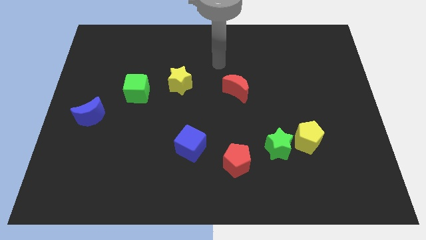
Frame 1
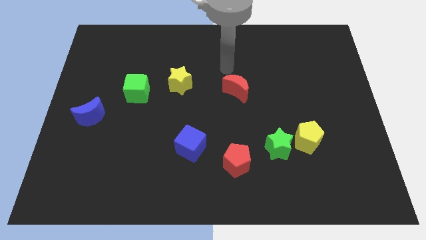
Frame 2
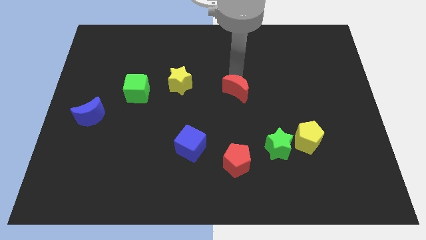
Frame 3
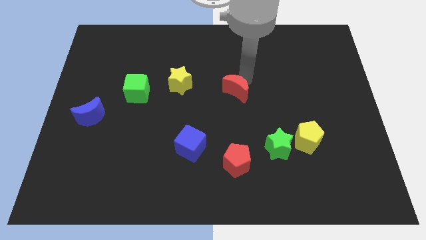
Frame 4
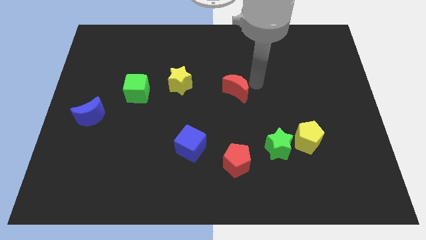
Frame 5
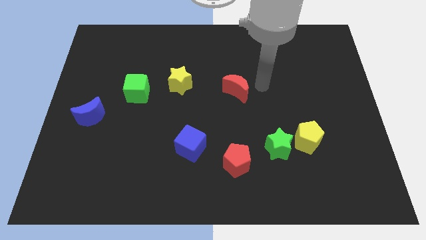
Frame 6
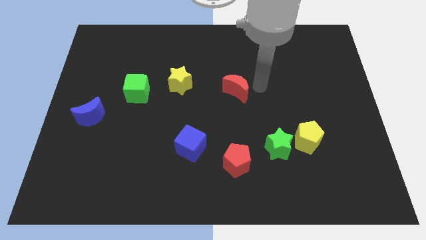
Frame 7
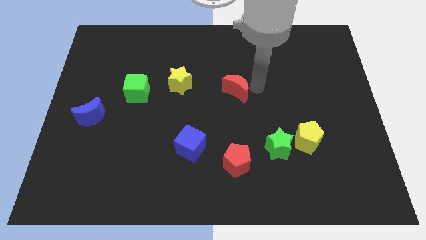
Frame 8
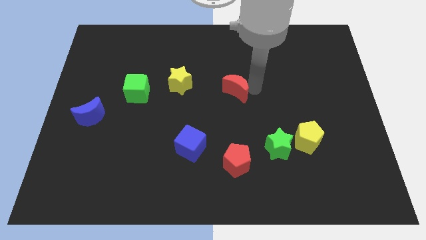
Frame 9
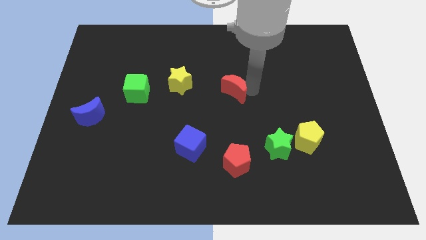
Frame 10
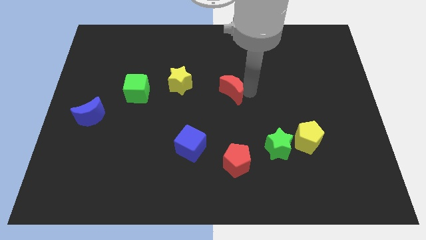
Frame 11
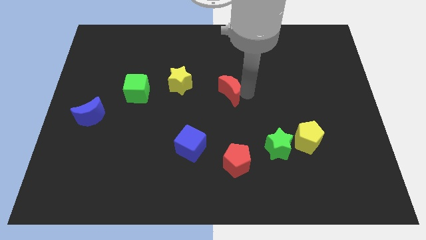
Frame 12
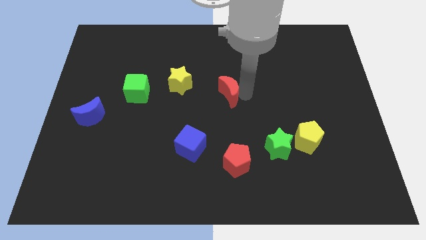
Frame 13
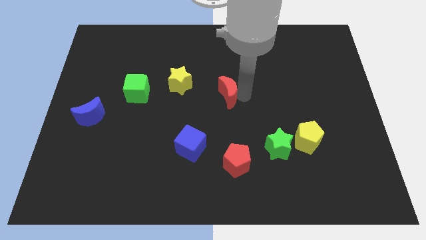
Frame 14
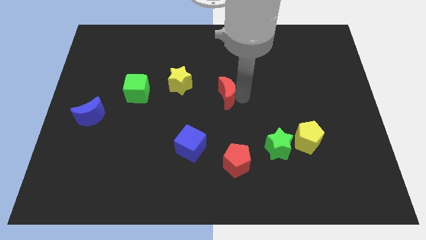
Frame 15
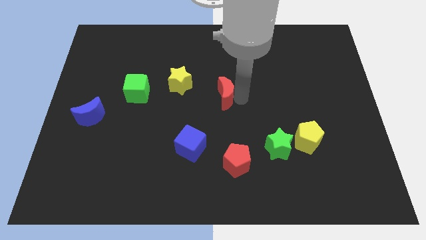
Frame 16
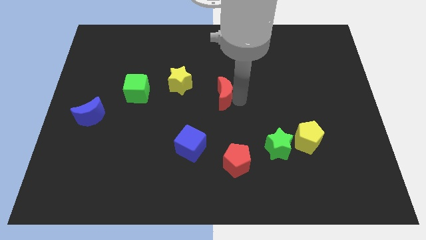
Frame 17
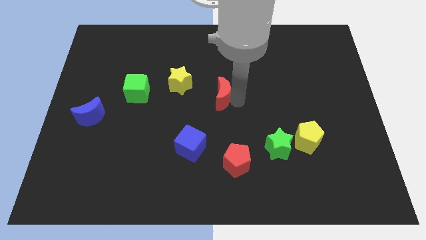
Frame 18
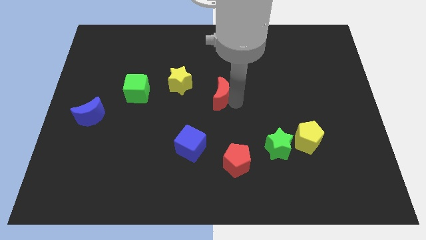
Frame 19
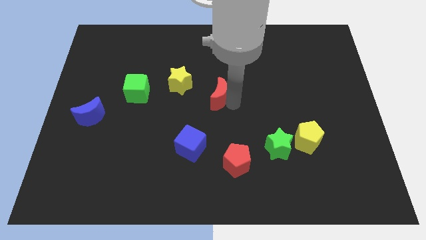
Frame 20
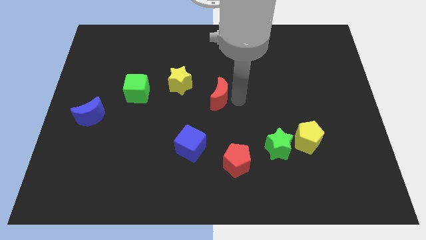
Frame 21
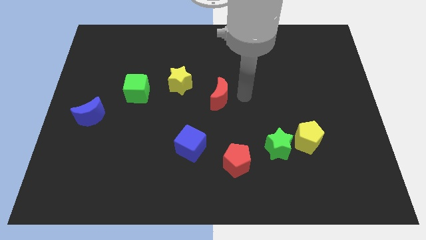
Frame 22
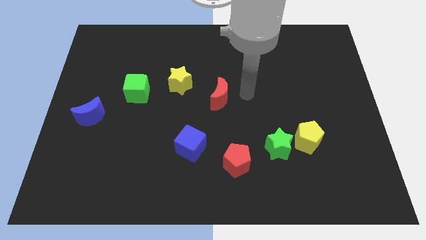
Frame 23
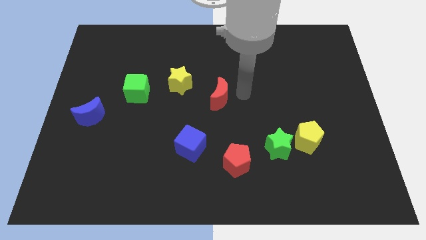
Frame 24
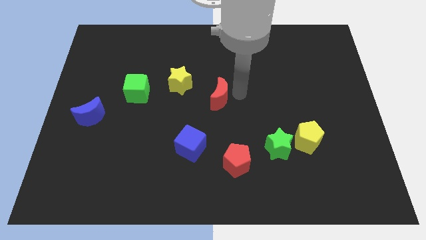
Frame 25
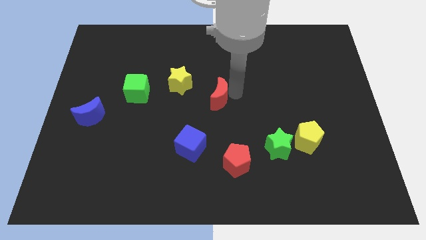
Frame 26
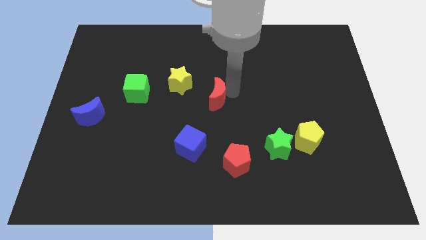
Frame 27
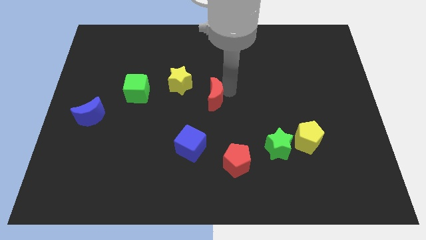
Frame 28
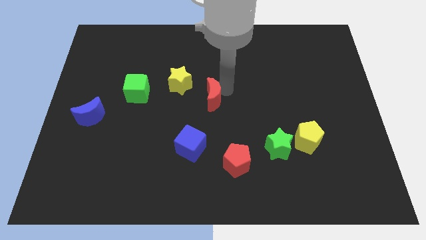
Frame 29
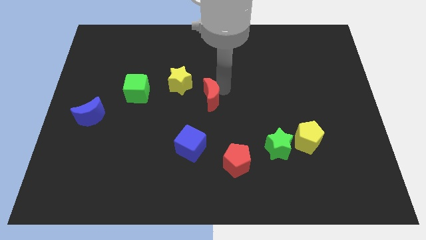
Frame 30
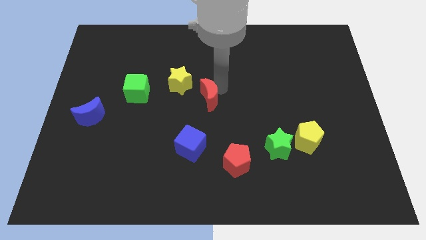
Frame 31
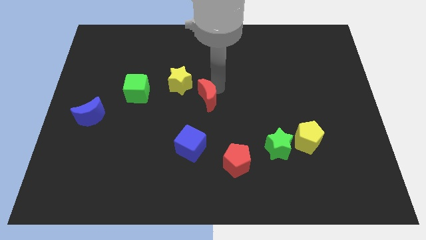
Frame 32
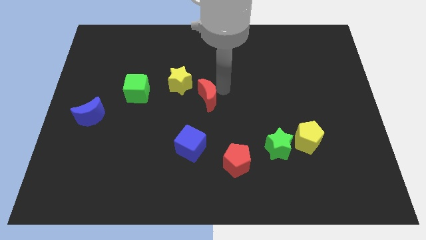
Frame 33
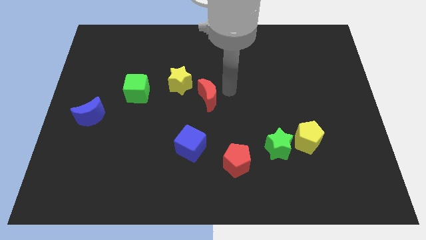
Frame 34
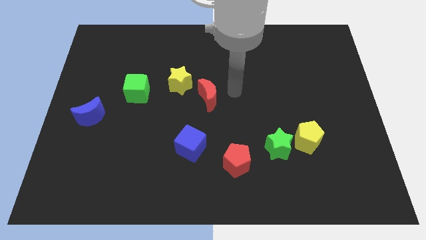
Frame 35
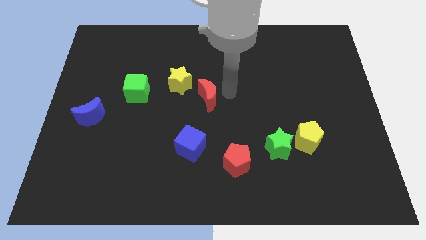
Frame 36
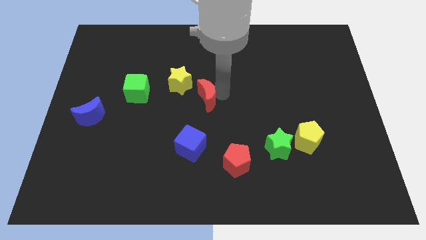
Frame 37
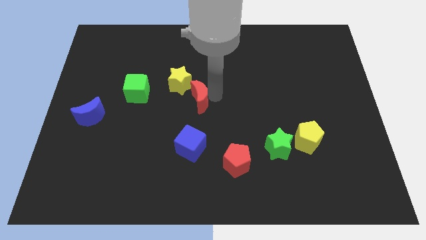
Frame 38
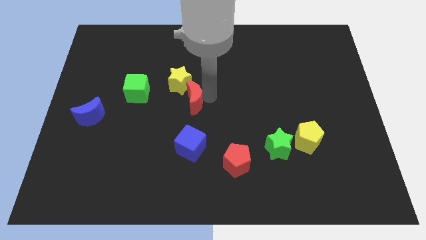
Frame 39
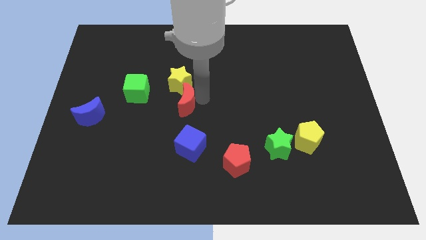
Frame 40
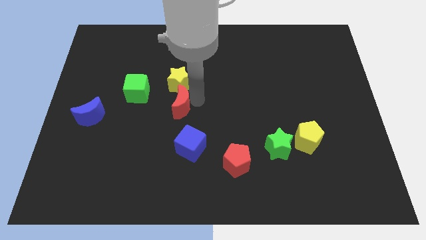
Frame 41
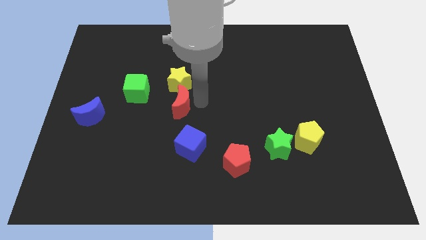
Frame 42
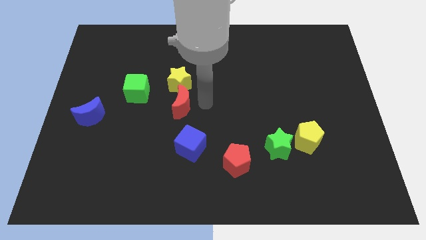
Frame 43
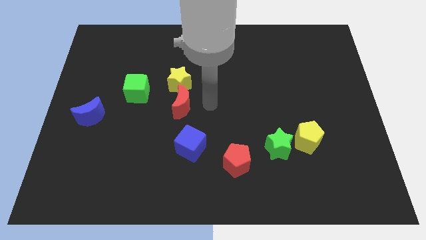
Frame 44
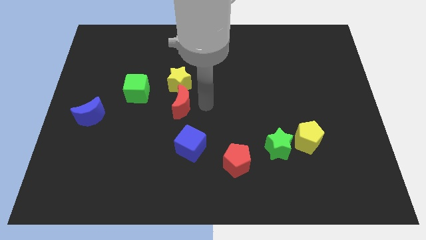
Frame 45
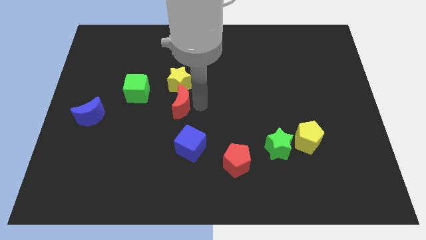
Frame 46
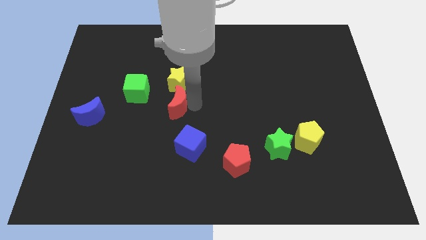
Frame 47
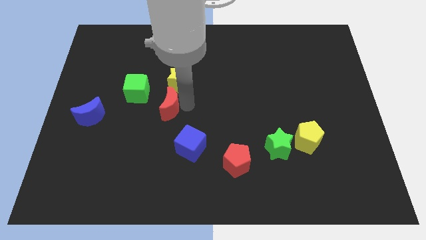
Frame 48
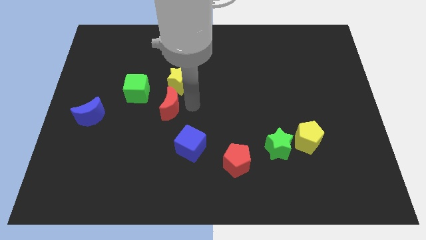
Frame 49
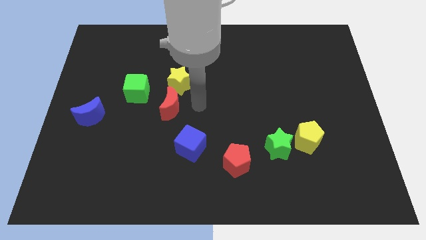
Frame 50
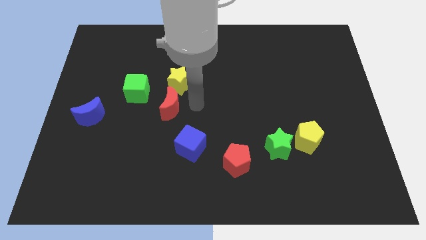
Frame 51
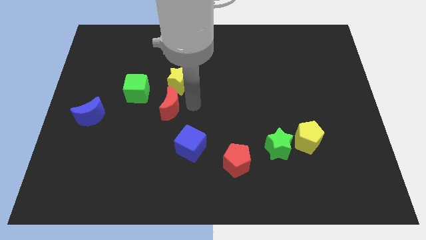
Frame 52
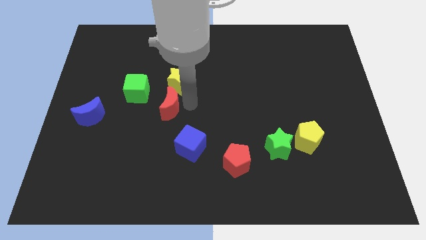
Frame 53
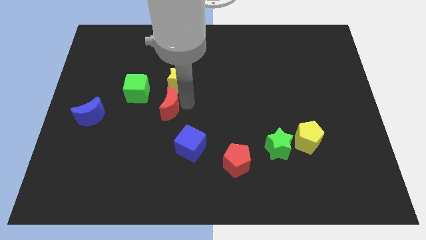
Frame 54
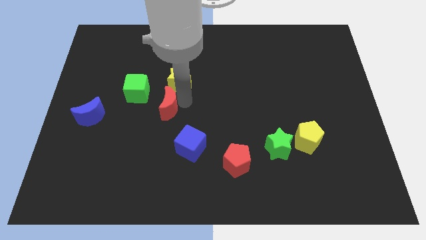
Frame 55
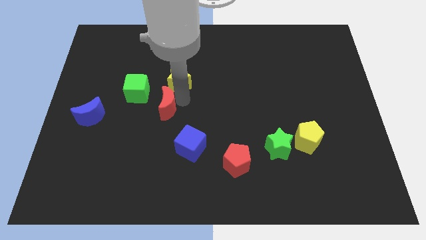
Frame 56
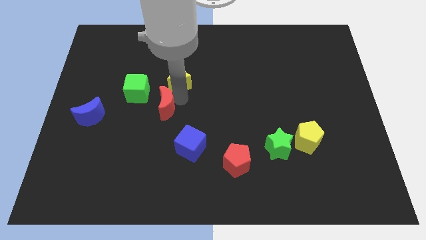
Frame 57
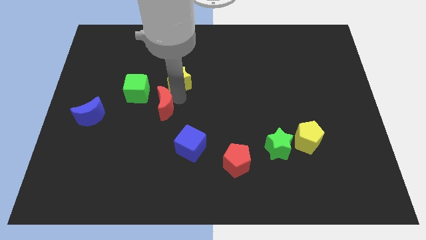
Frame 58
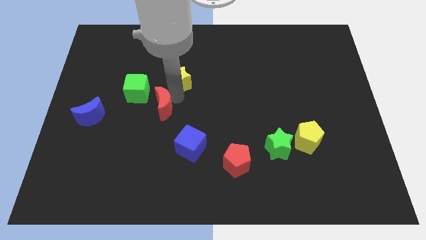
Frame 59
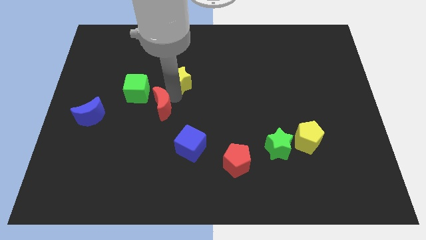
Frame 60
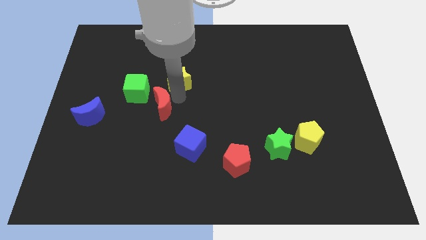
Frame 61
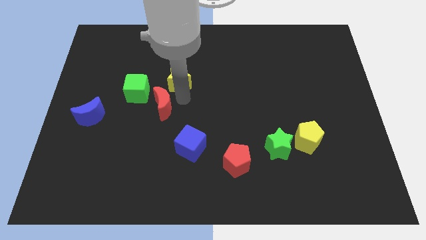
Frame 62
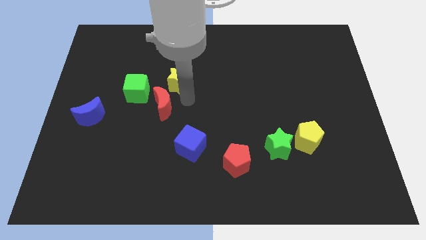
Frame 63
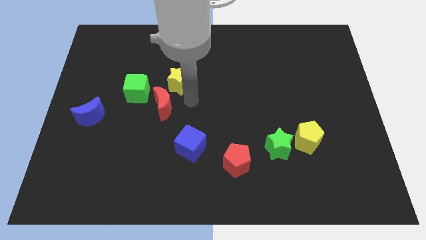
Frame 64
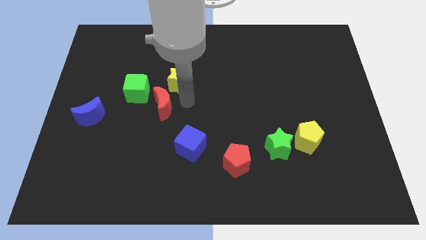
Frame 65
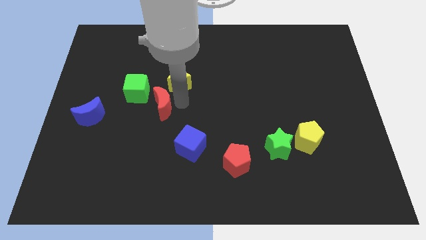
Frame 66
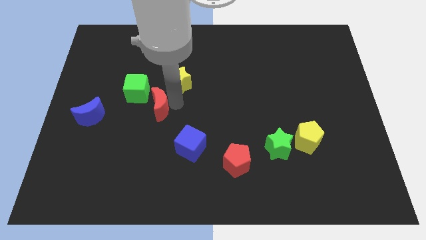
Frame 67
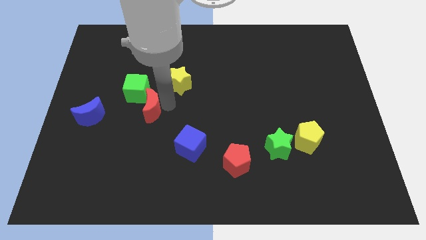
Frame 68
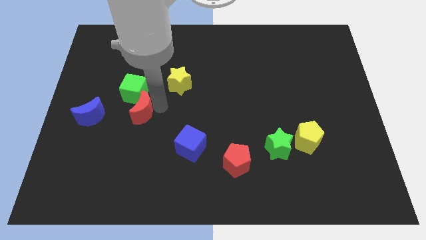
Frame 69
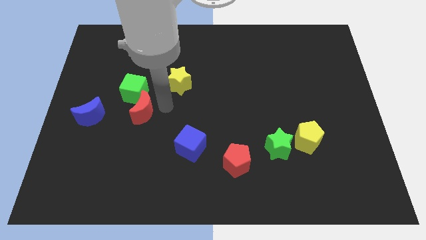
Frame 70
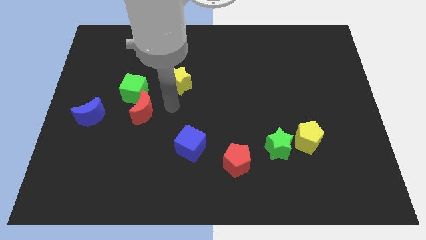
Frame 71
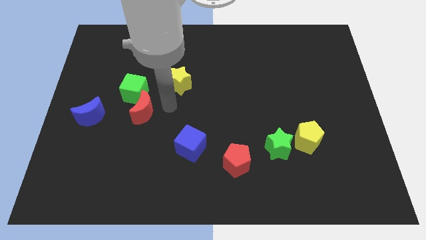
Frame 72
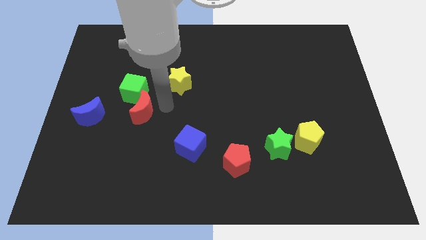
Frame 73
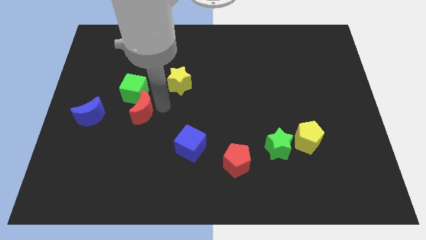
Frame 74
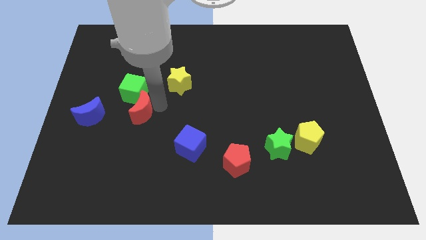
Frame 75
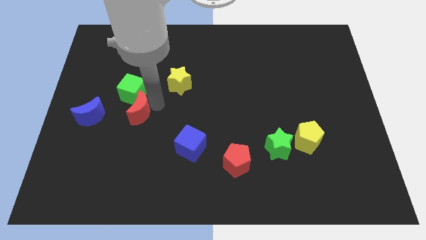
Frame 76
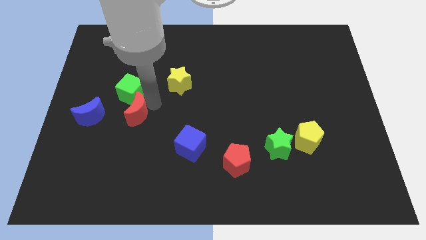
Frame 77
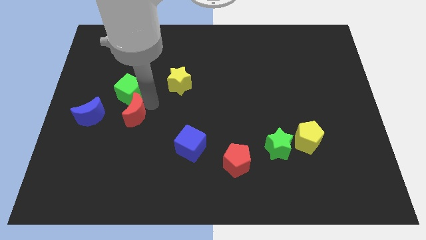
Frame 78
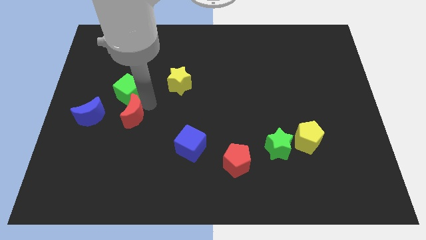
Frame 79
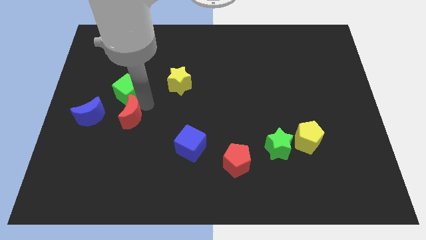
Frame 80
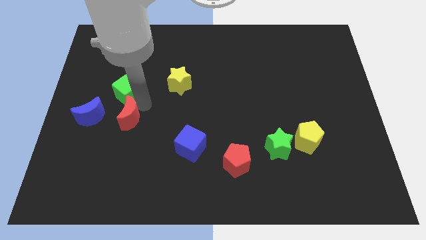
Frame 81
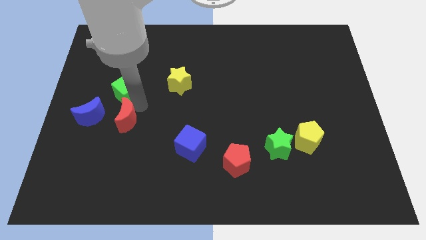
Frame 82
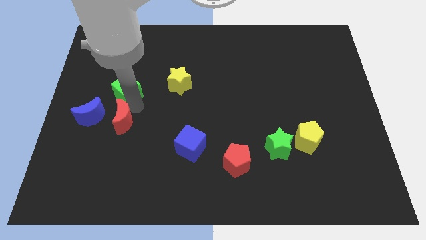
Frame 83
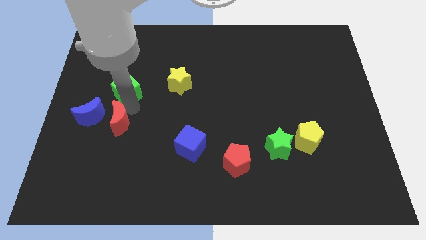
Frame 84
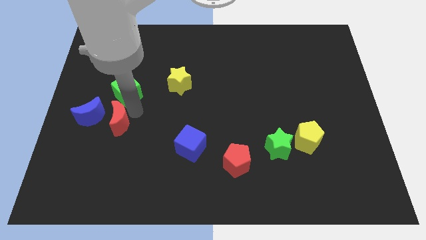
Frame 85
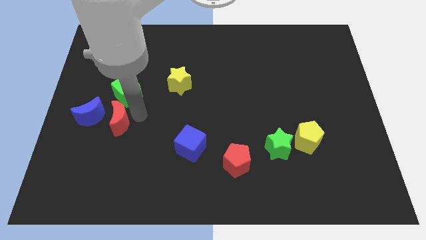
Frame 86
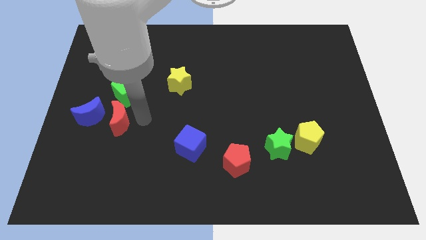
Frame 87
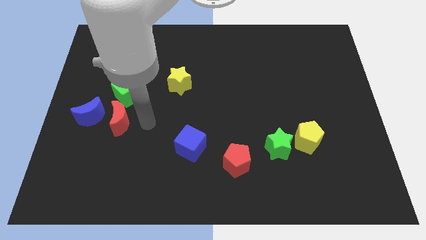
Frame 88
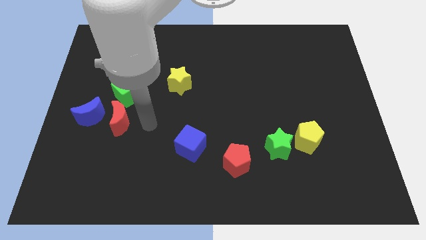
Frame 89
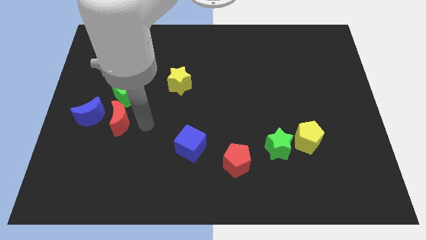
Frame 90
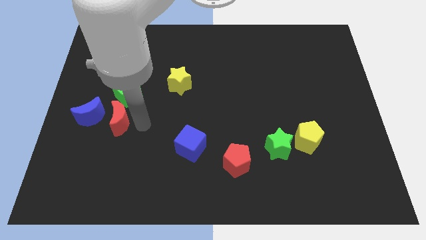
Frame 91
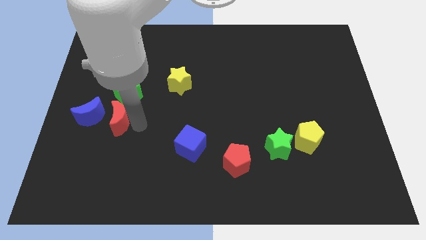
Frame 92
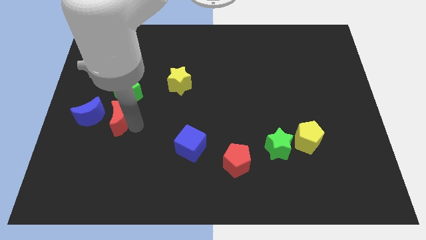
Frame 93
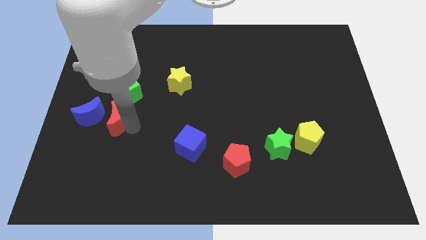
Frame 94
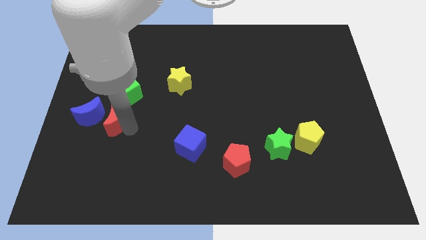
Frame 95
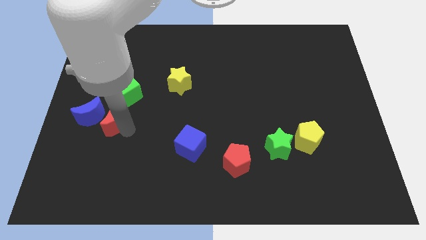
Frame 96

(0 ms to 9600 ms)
put the red moon towards the blue moon
